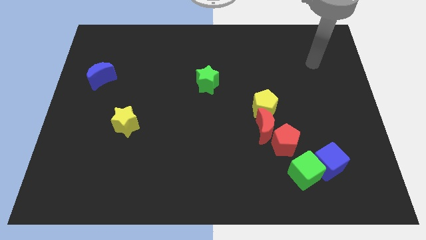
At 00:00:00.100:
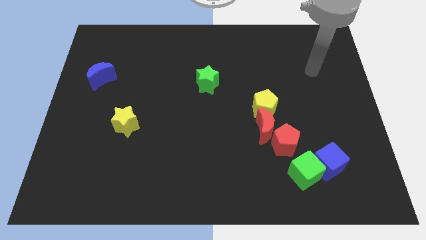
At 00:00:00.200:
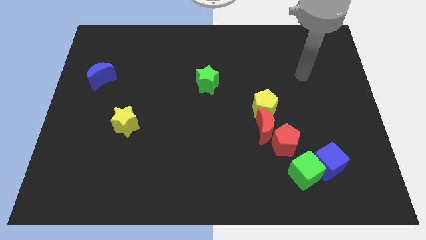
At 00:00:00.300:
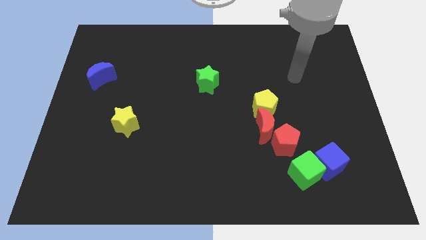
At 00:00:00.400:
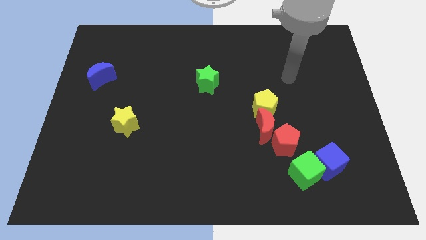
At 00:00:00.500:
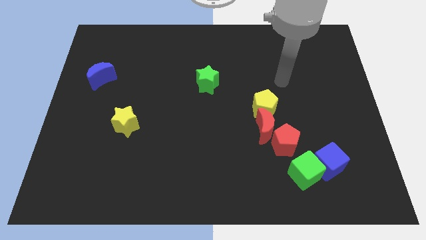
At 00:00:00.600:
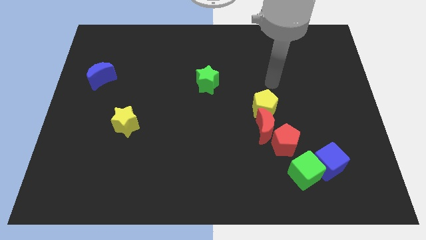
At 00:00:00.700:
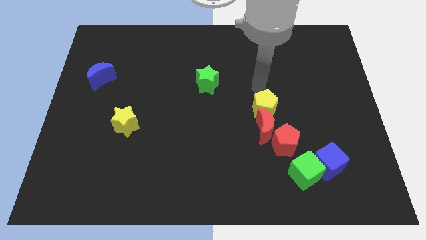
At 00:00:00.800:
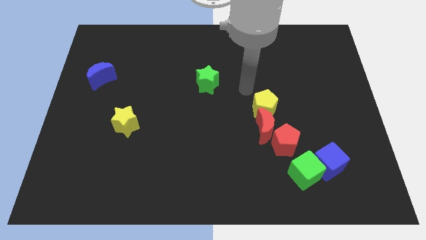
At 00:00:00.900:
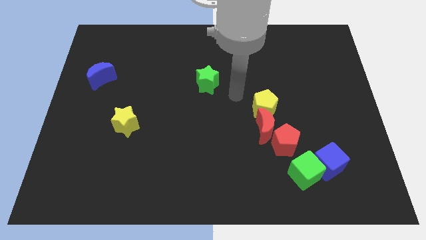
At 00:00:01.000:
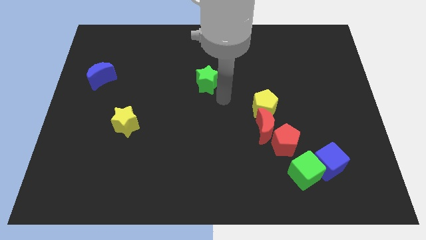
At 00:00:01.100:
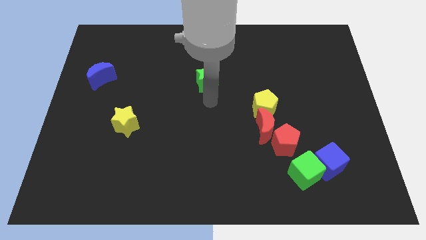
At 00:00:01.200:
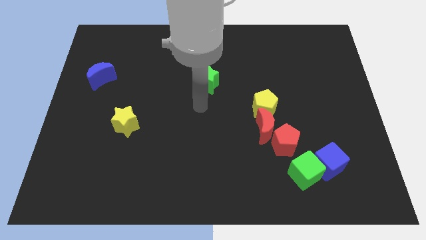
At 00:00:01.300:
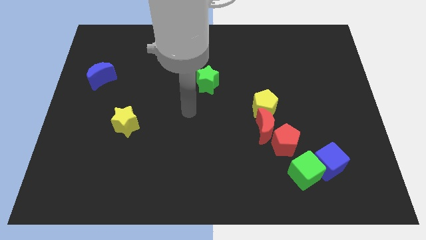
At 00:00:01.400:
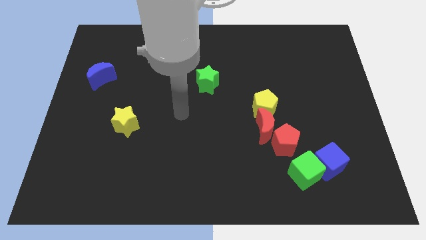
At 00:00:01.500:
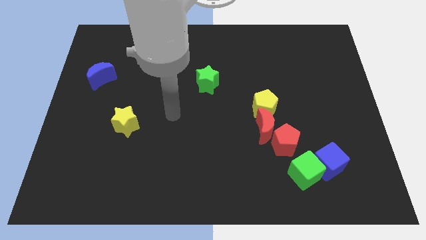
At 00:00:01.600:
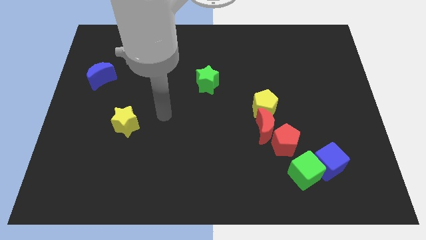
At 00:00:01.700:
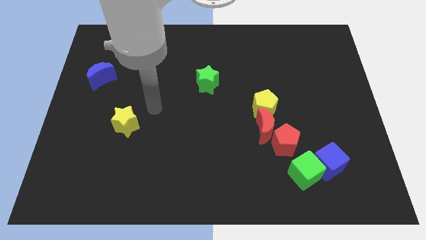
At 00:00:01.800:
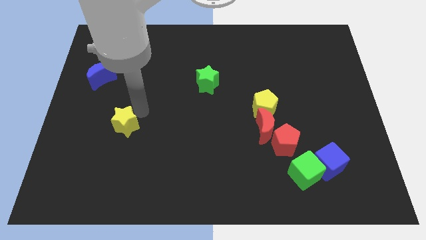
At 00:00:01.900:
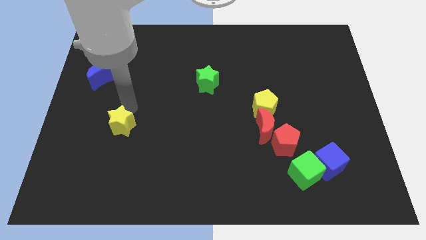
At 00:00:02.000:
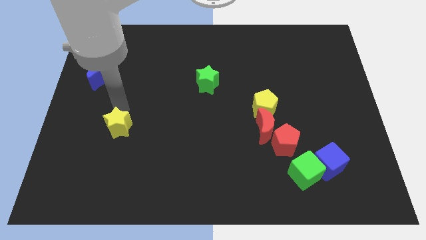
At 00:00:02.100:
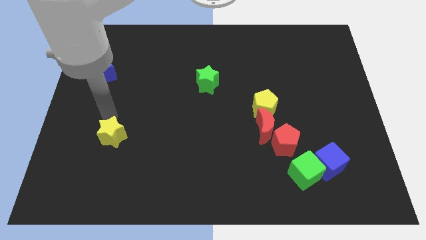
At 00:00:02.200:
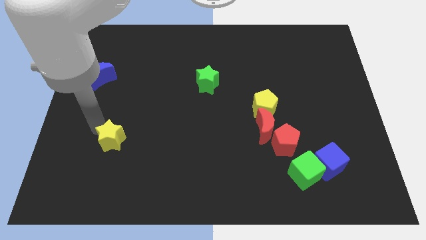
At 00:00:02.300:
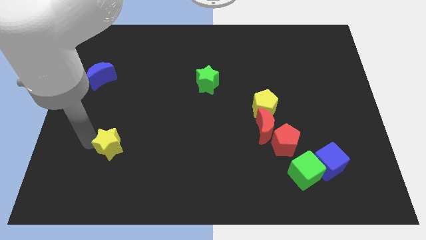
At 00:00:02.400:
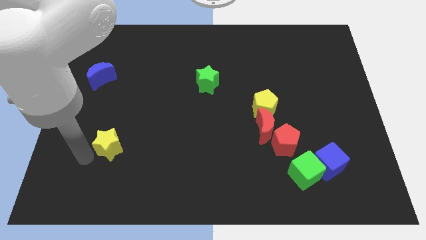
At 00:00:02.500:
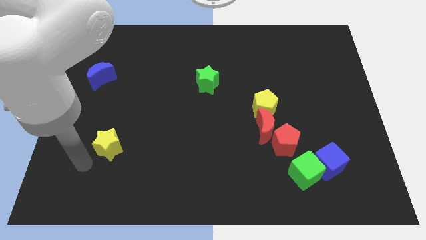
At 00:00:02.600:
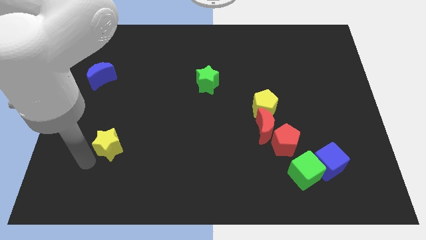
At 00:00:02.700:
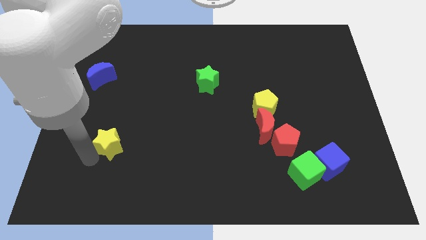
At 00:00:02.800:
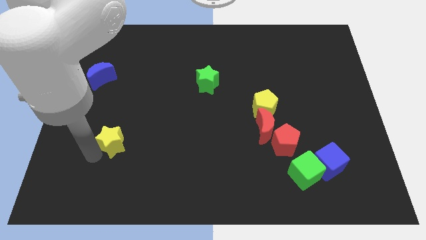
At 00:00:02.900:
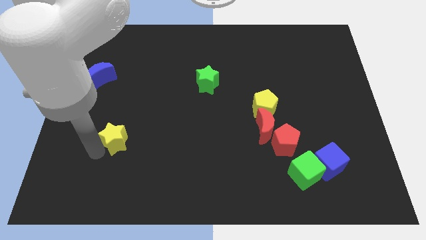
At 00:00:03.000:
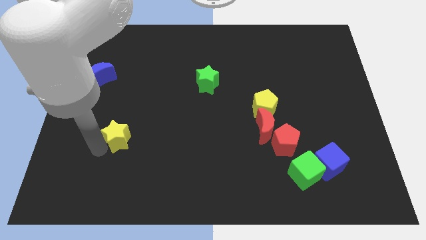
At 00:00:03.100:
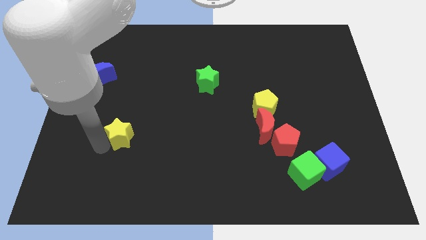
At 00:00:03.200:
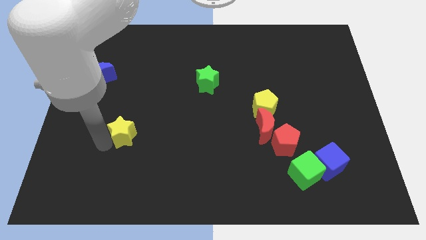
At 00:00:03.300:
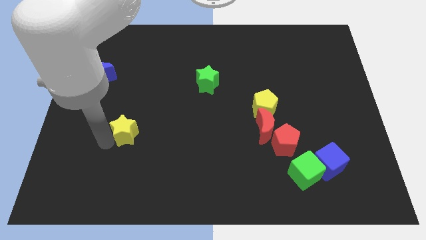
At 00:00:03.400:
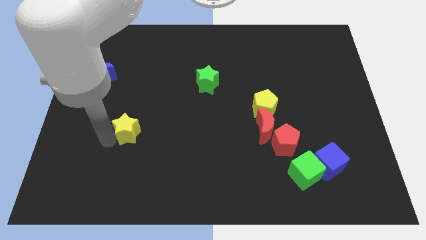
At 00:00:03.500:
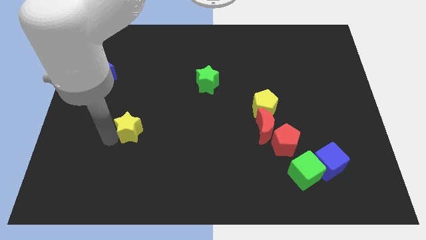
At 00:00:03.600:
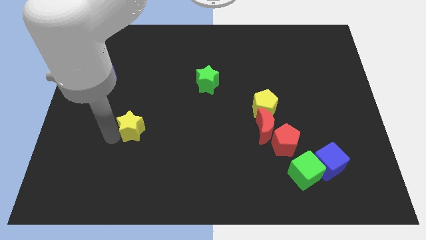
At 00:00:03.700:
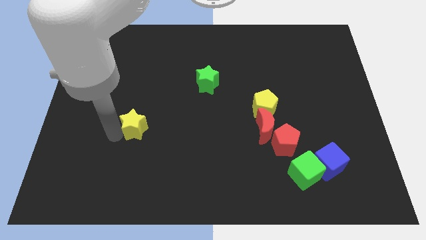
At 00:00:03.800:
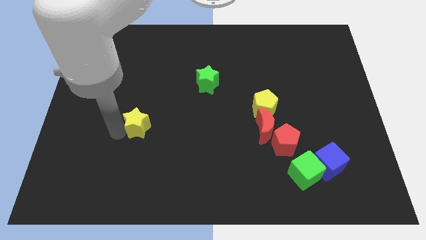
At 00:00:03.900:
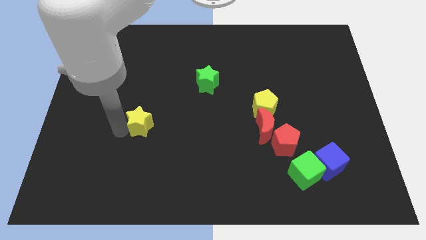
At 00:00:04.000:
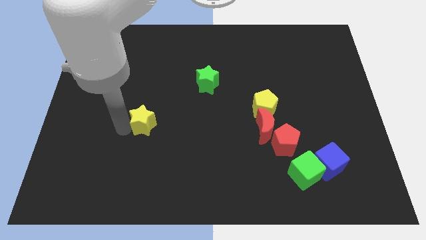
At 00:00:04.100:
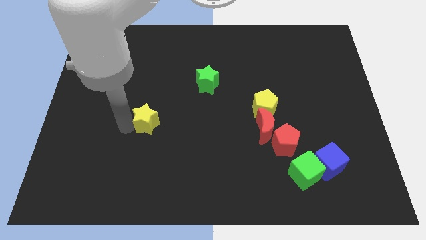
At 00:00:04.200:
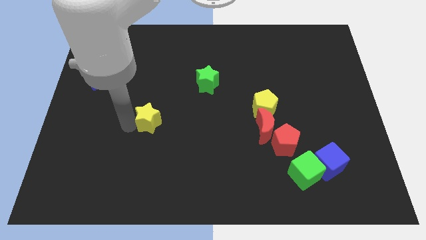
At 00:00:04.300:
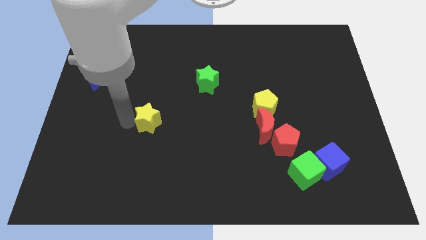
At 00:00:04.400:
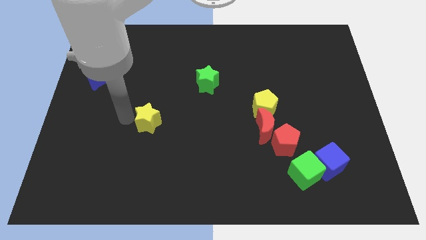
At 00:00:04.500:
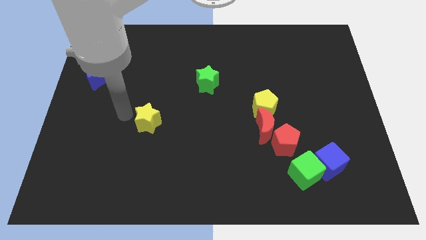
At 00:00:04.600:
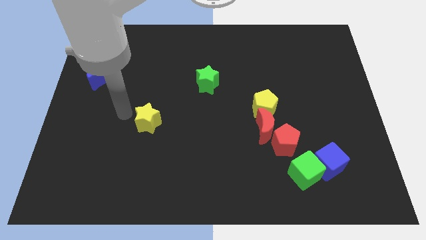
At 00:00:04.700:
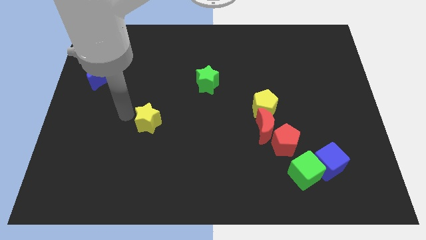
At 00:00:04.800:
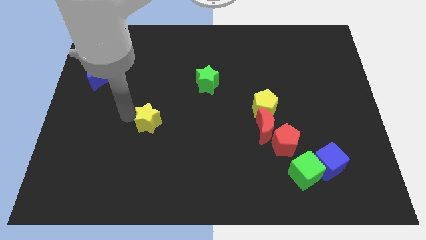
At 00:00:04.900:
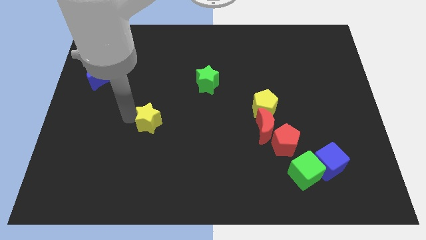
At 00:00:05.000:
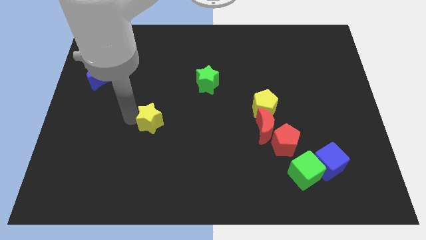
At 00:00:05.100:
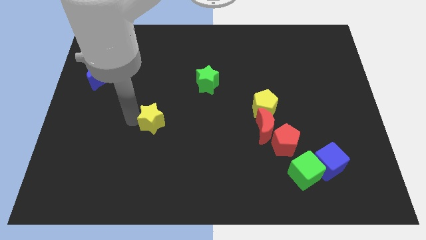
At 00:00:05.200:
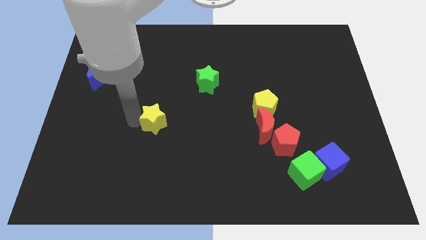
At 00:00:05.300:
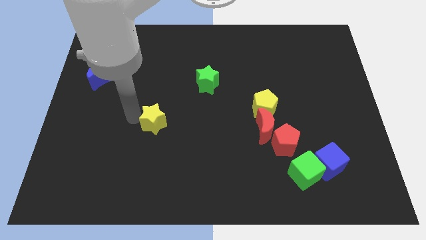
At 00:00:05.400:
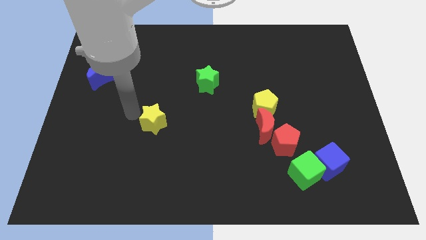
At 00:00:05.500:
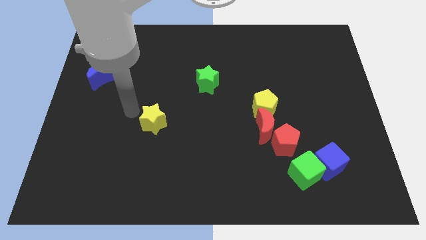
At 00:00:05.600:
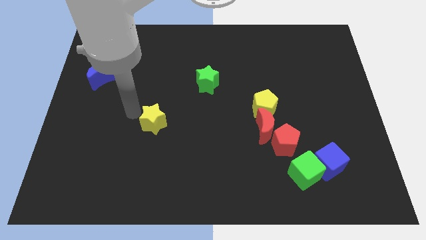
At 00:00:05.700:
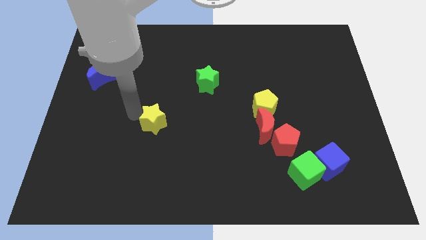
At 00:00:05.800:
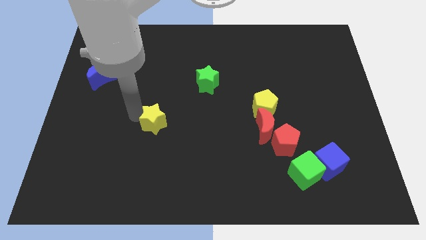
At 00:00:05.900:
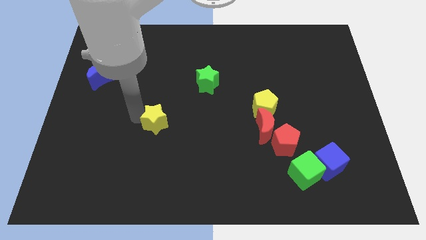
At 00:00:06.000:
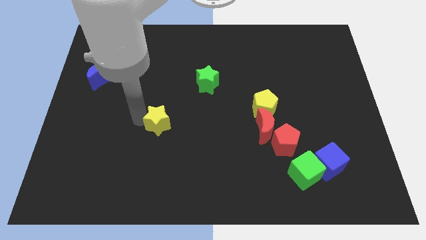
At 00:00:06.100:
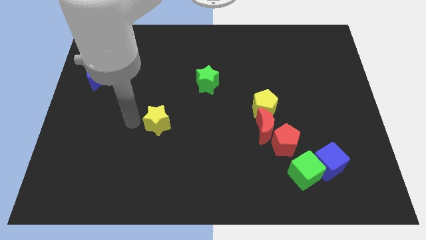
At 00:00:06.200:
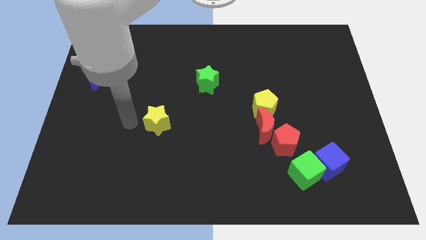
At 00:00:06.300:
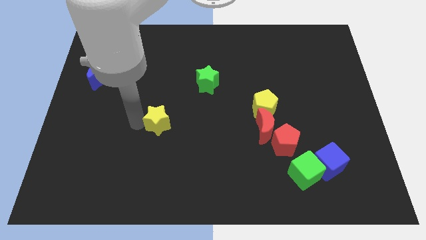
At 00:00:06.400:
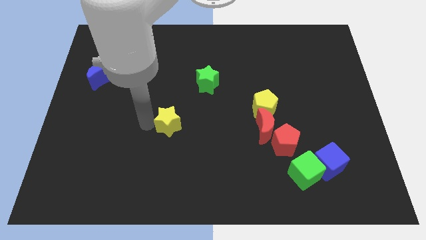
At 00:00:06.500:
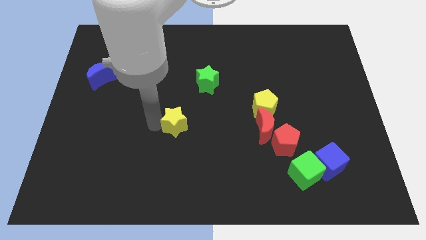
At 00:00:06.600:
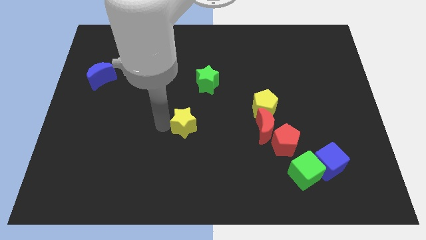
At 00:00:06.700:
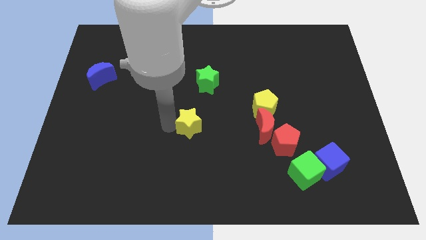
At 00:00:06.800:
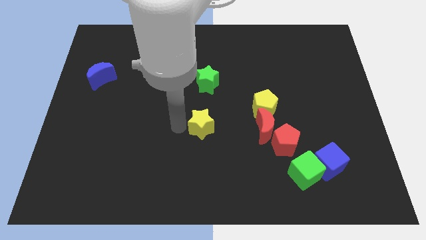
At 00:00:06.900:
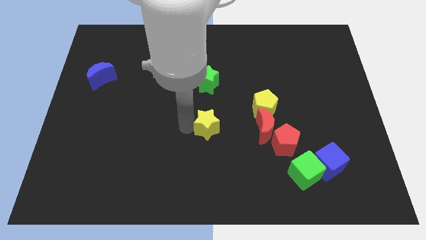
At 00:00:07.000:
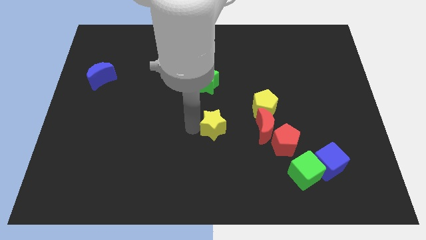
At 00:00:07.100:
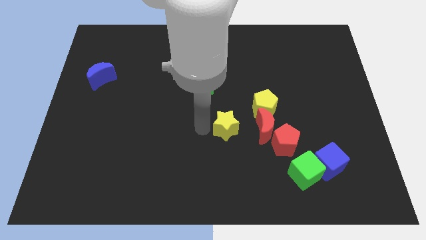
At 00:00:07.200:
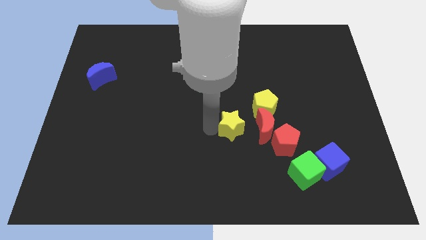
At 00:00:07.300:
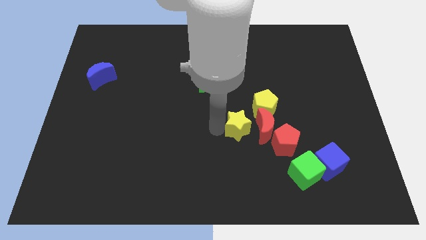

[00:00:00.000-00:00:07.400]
push the yellow star close to the red moon
